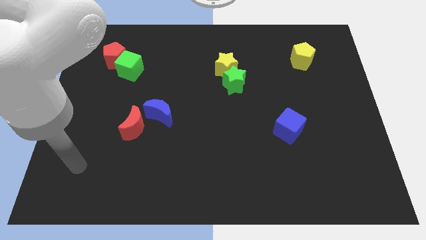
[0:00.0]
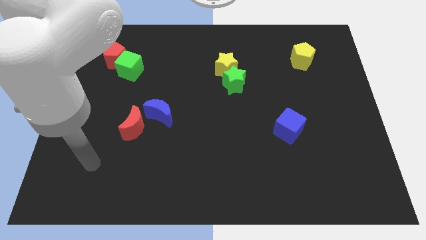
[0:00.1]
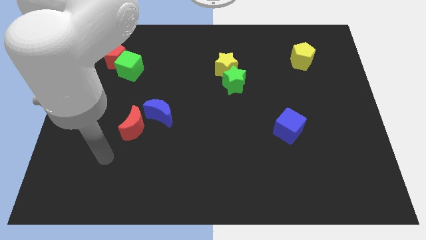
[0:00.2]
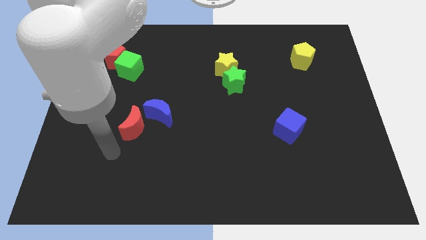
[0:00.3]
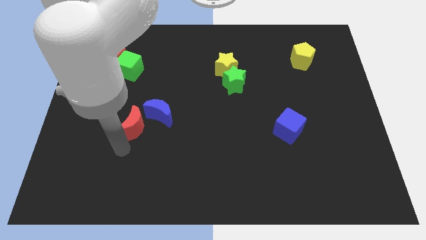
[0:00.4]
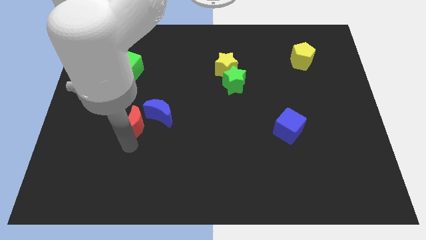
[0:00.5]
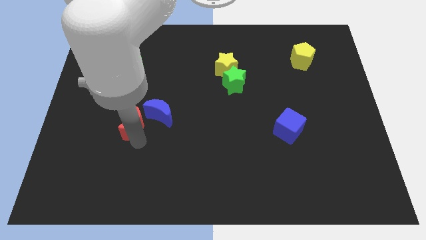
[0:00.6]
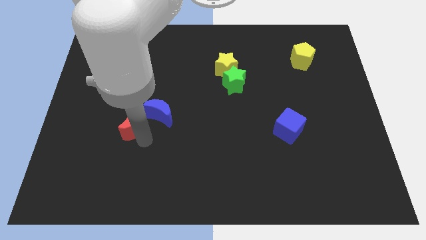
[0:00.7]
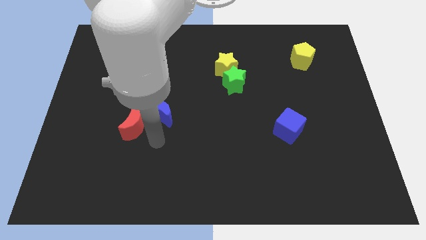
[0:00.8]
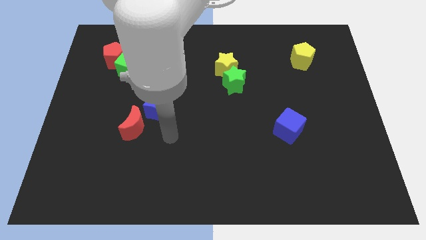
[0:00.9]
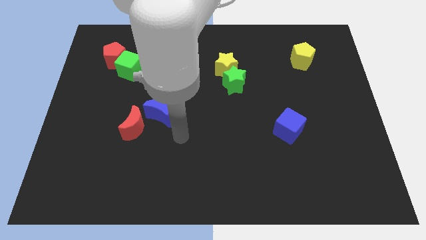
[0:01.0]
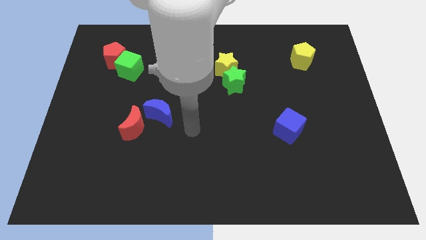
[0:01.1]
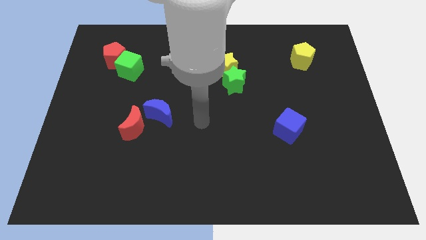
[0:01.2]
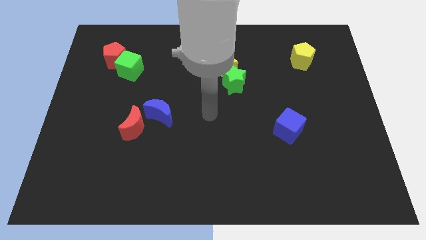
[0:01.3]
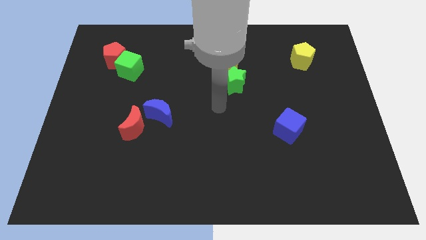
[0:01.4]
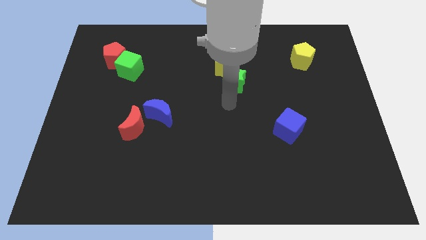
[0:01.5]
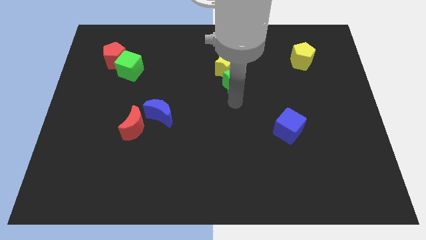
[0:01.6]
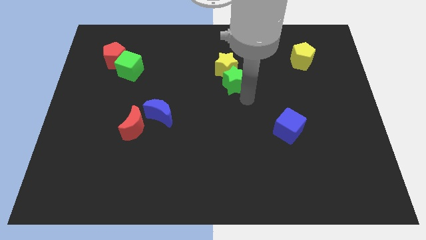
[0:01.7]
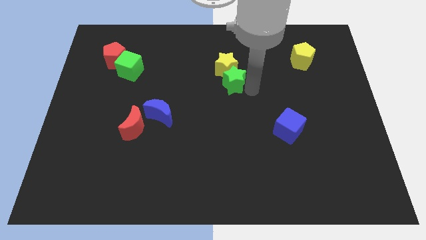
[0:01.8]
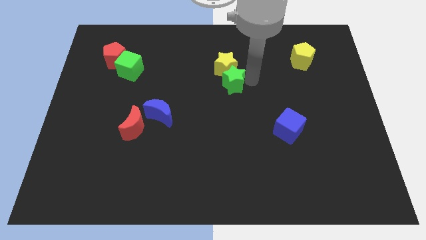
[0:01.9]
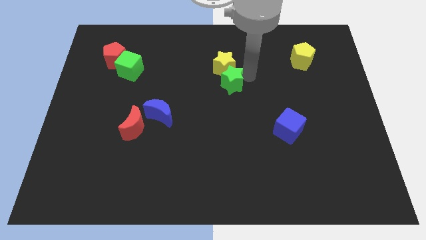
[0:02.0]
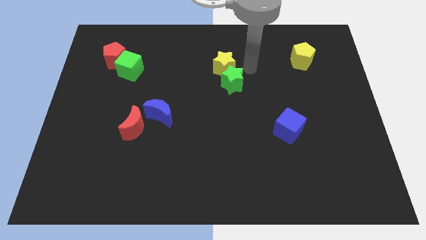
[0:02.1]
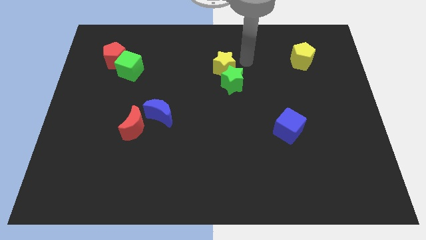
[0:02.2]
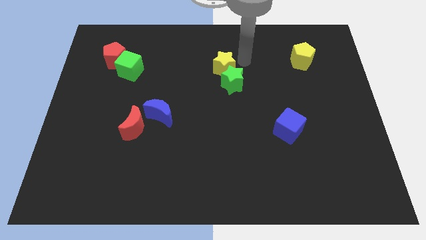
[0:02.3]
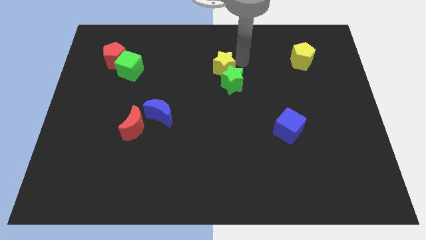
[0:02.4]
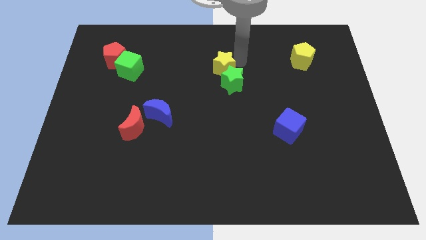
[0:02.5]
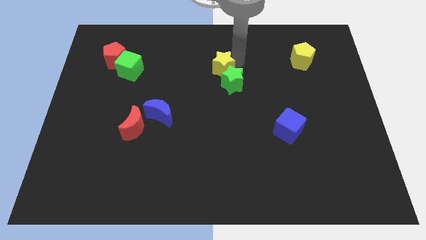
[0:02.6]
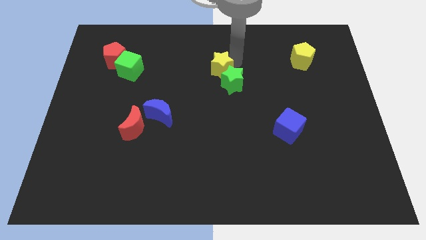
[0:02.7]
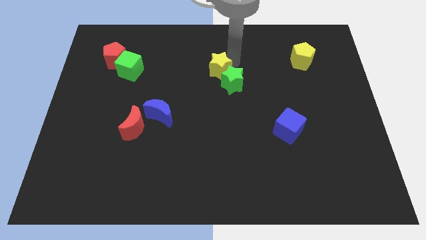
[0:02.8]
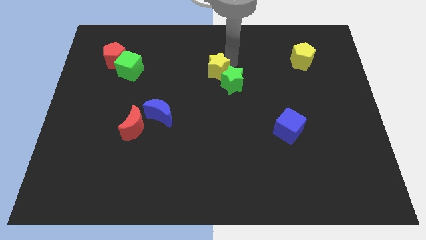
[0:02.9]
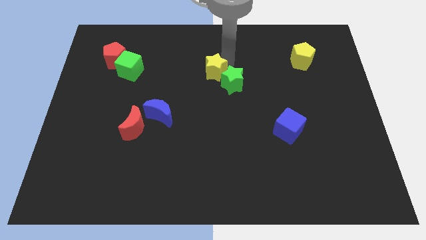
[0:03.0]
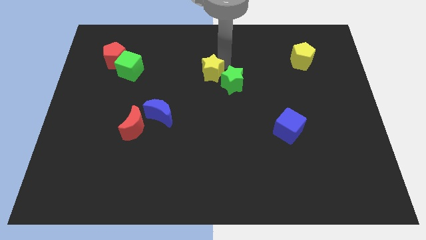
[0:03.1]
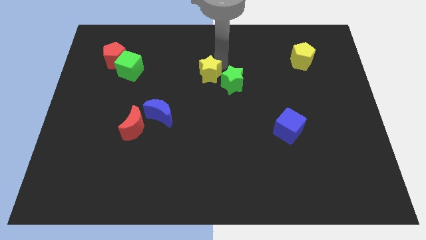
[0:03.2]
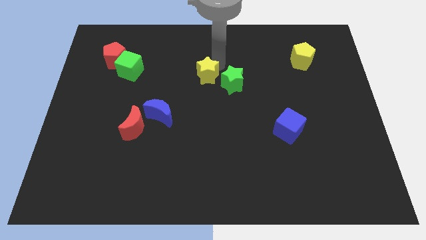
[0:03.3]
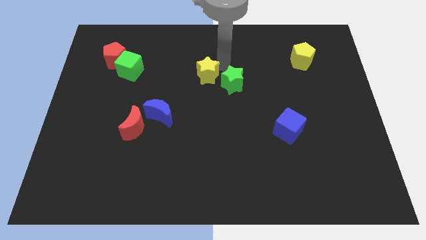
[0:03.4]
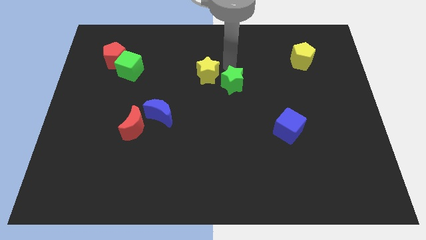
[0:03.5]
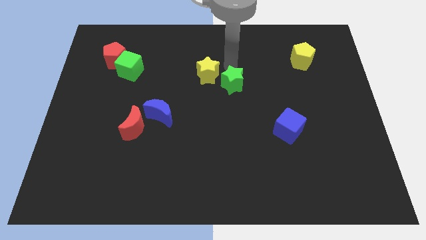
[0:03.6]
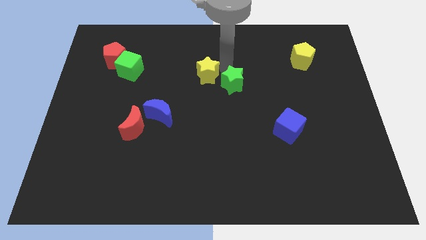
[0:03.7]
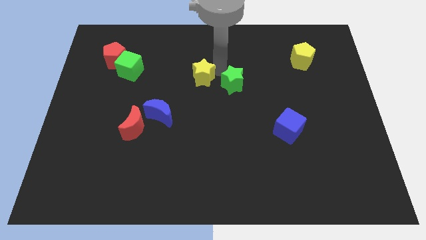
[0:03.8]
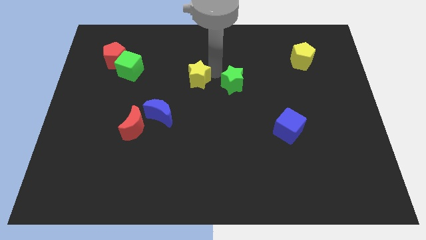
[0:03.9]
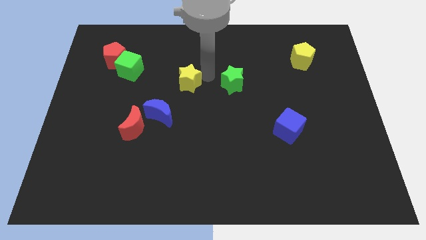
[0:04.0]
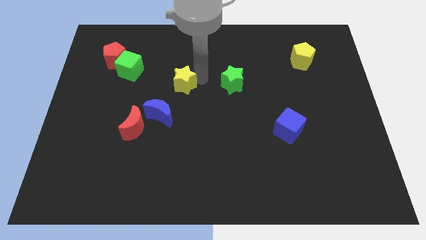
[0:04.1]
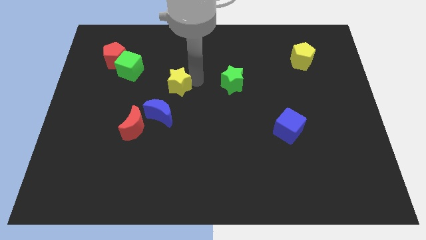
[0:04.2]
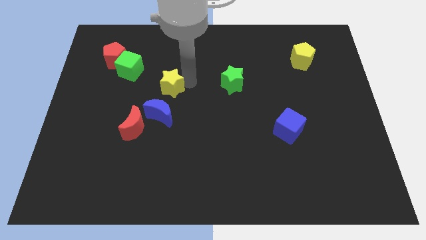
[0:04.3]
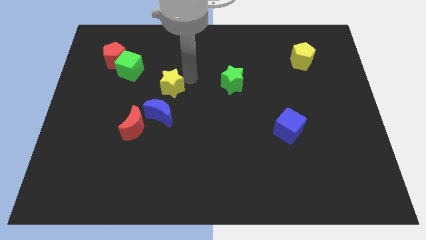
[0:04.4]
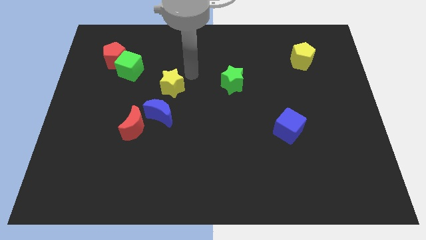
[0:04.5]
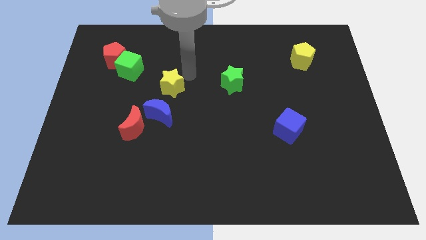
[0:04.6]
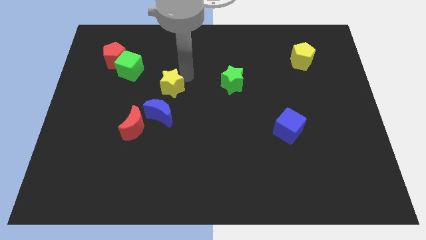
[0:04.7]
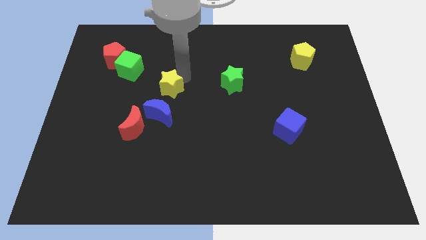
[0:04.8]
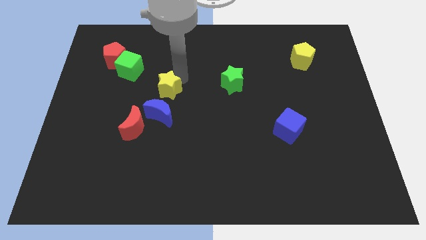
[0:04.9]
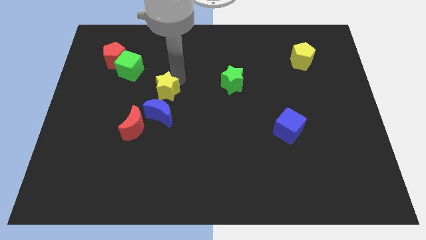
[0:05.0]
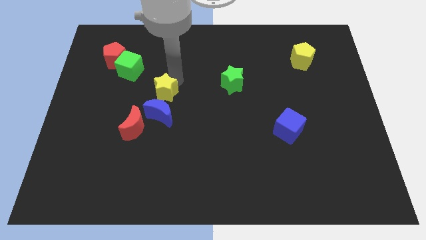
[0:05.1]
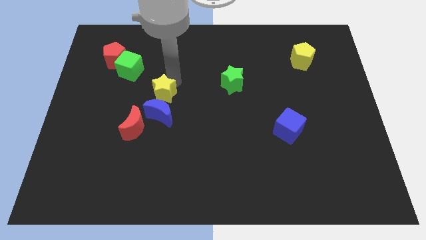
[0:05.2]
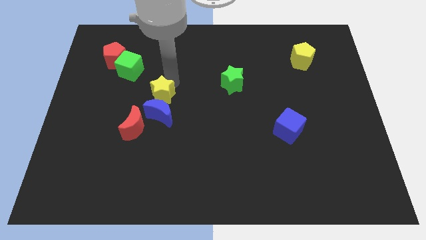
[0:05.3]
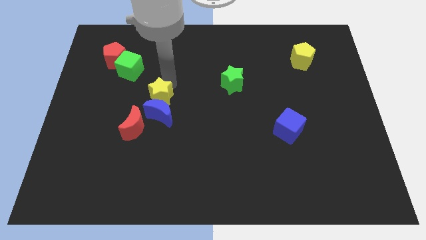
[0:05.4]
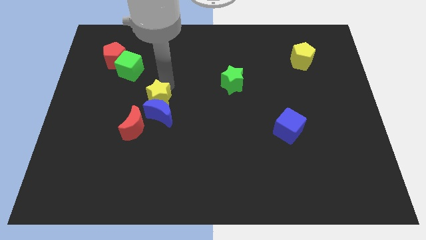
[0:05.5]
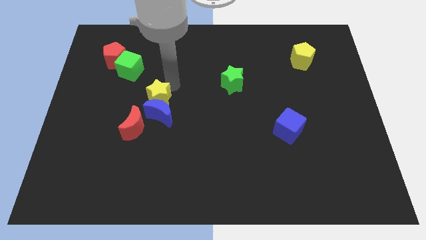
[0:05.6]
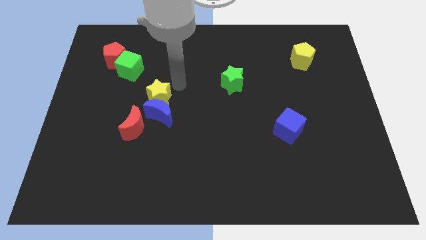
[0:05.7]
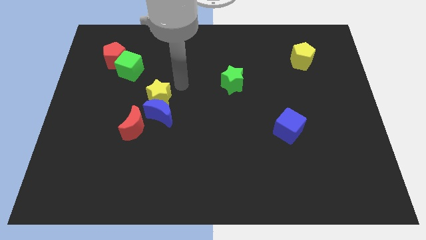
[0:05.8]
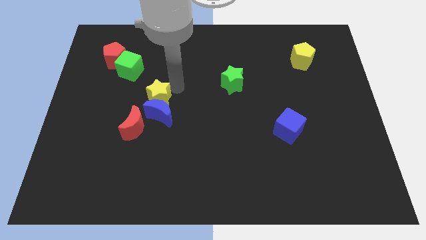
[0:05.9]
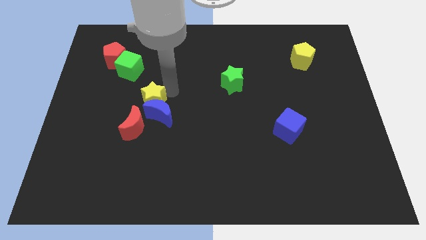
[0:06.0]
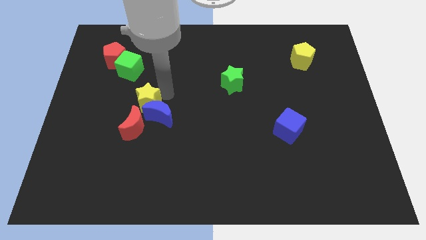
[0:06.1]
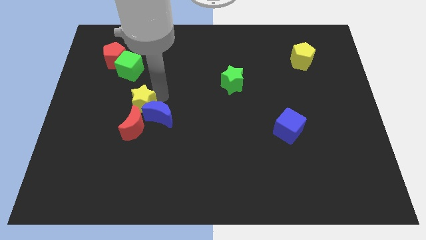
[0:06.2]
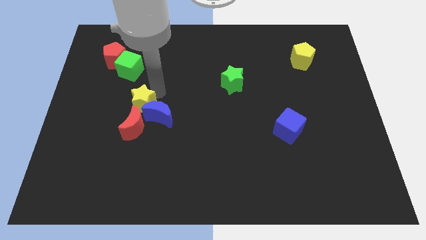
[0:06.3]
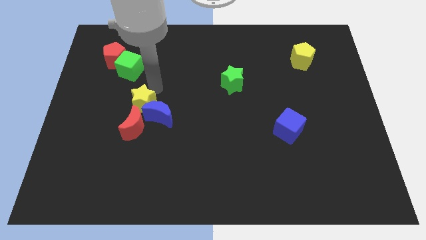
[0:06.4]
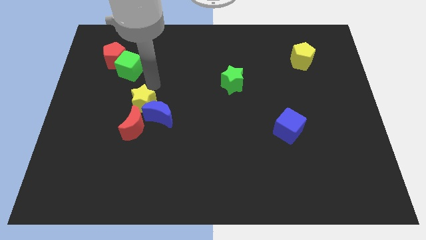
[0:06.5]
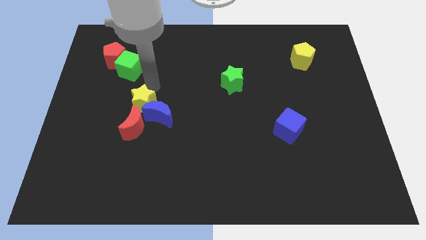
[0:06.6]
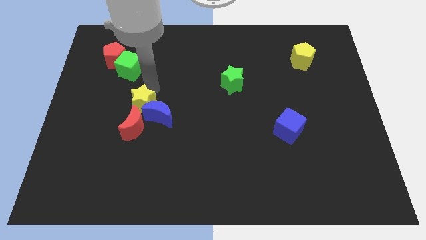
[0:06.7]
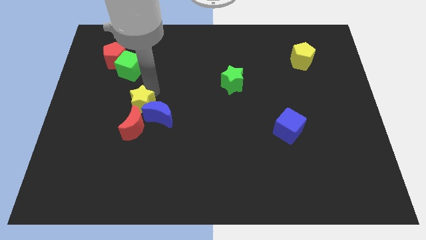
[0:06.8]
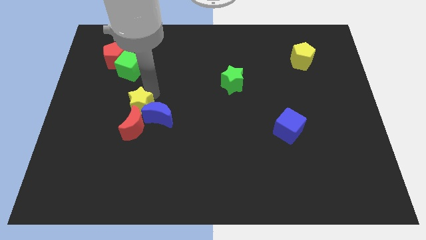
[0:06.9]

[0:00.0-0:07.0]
push the yellow star towards the red moon

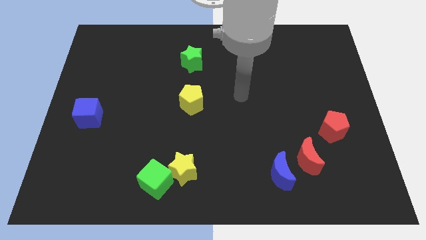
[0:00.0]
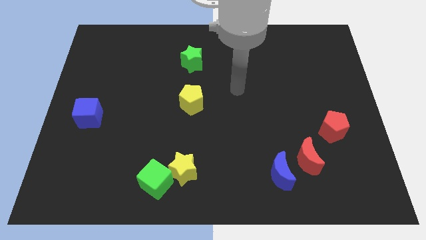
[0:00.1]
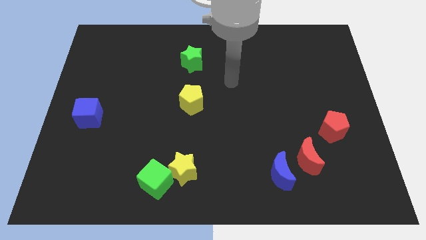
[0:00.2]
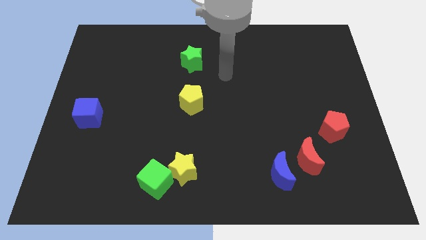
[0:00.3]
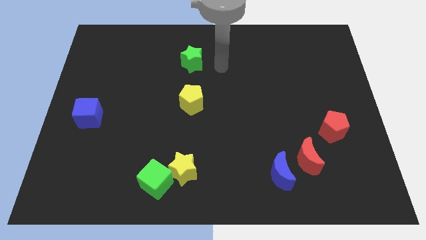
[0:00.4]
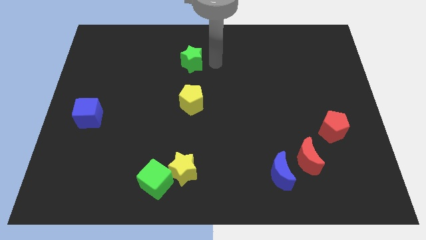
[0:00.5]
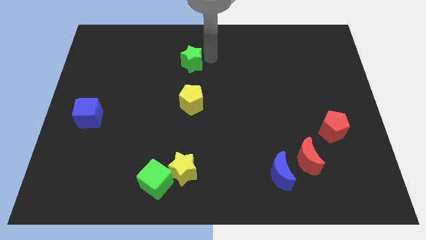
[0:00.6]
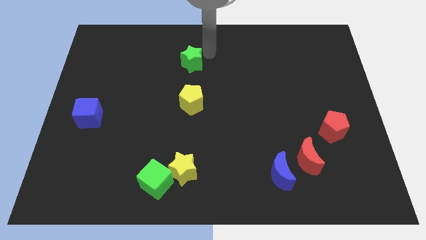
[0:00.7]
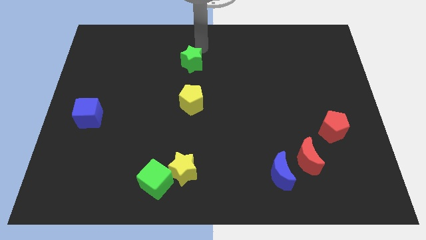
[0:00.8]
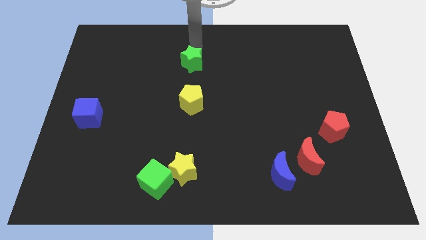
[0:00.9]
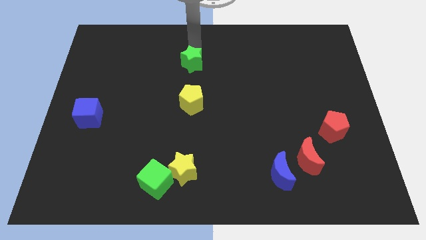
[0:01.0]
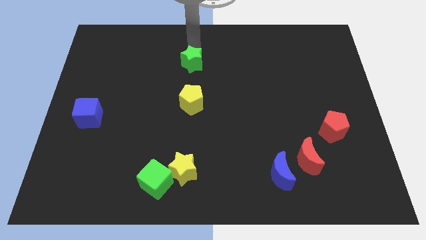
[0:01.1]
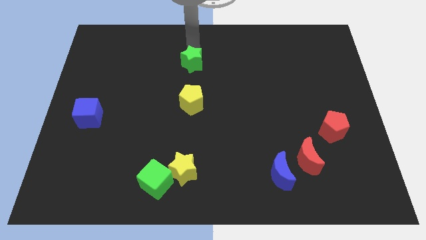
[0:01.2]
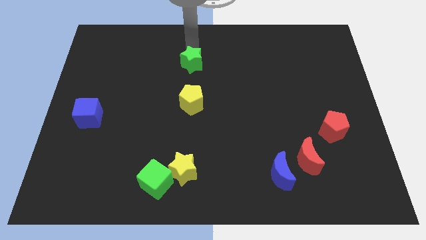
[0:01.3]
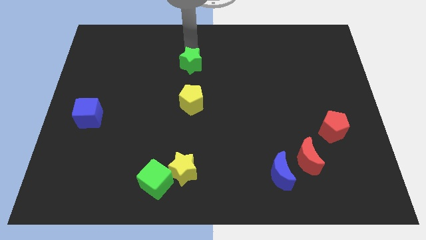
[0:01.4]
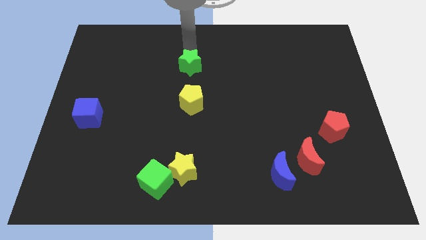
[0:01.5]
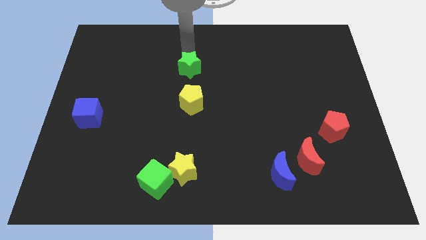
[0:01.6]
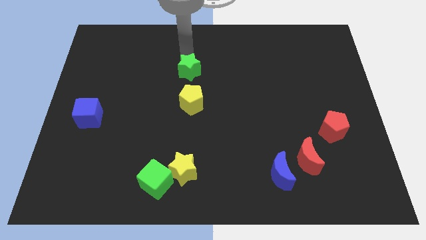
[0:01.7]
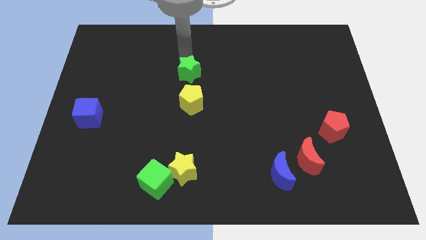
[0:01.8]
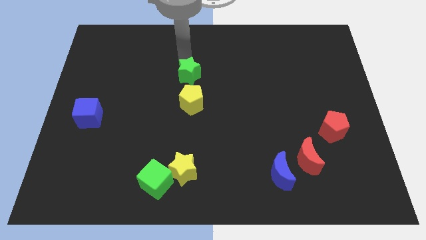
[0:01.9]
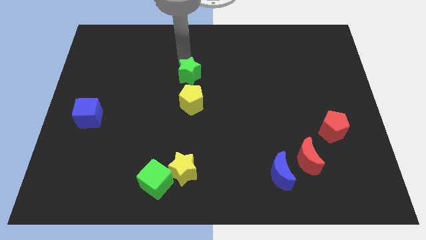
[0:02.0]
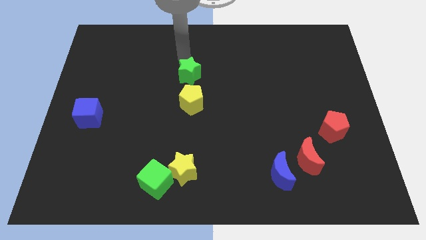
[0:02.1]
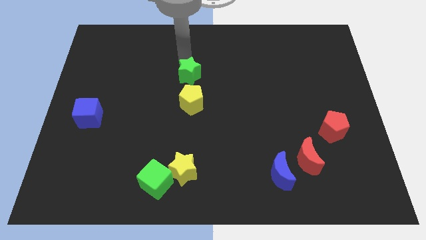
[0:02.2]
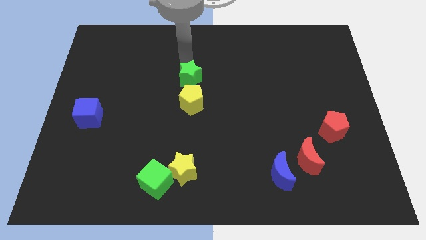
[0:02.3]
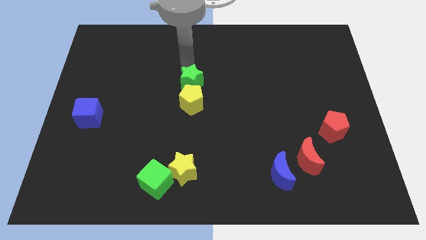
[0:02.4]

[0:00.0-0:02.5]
put the green star towards the yellow pentagon
